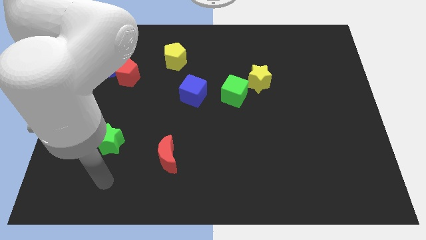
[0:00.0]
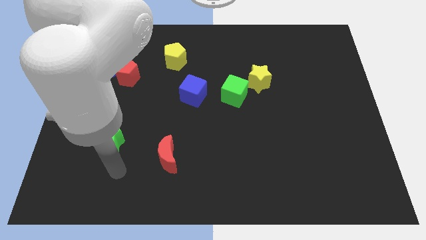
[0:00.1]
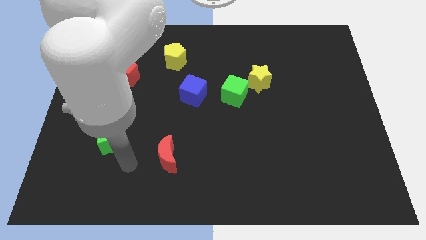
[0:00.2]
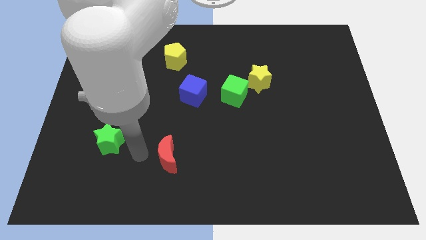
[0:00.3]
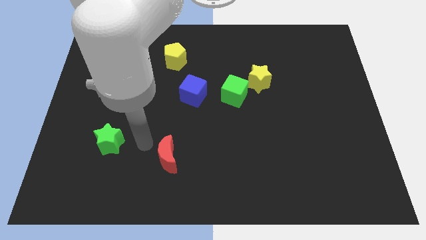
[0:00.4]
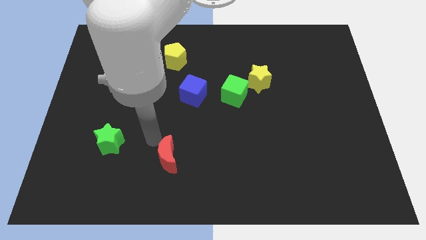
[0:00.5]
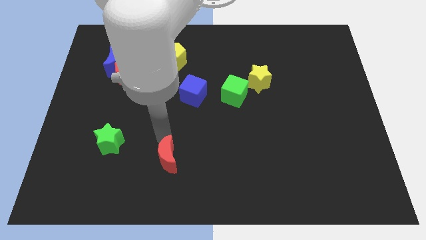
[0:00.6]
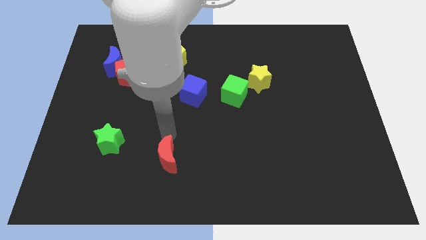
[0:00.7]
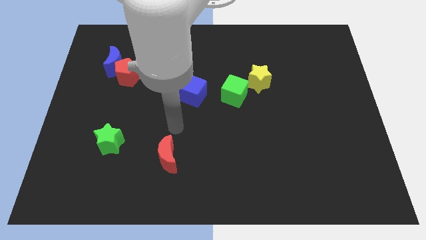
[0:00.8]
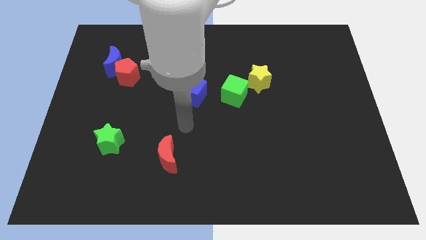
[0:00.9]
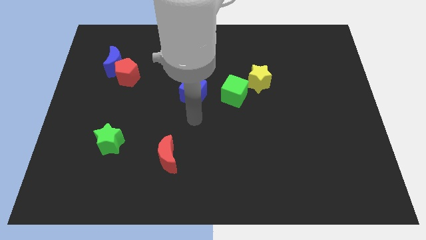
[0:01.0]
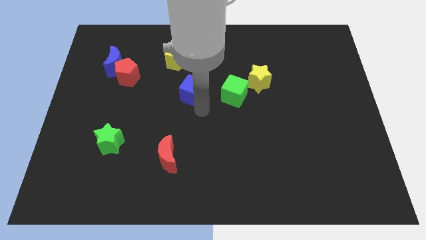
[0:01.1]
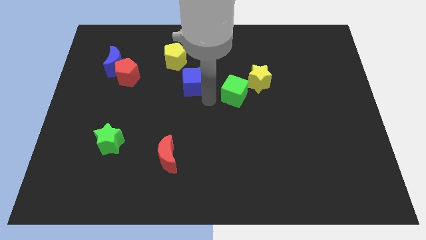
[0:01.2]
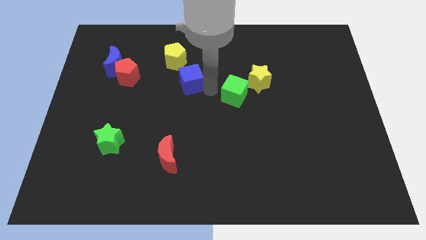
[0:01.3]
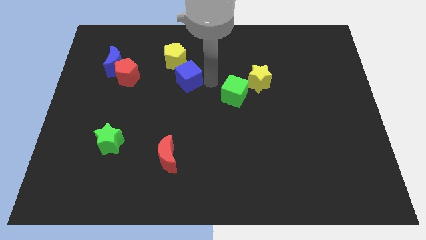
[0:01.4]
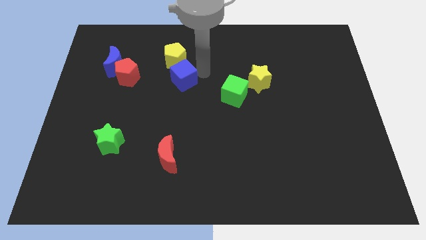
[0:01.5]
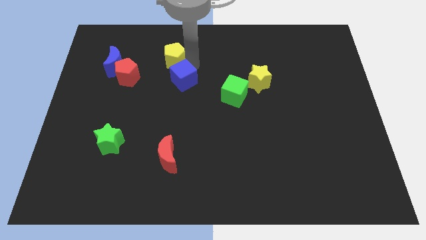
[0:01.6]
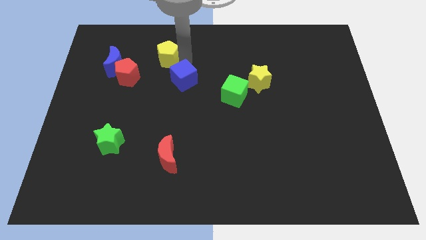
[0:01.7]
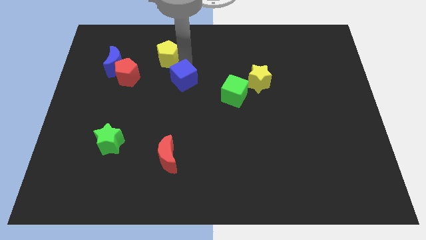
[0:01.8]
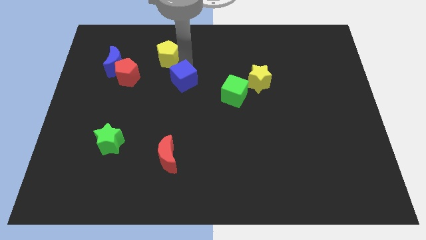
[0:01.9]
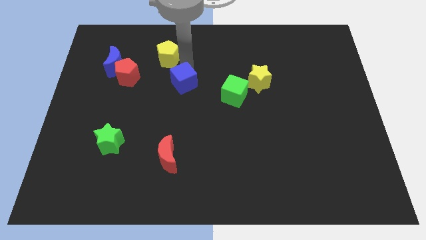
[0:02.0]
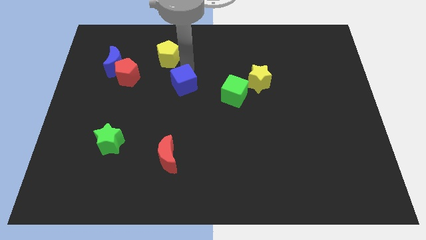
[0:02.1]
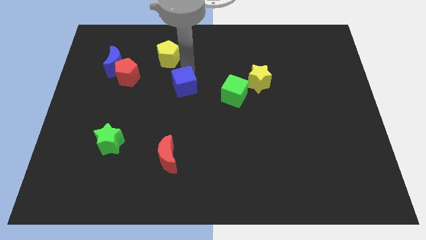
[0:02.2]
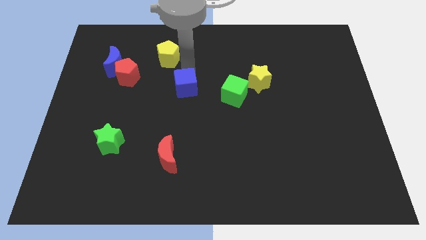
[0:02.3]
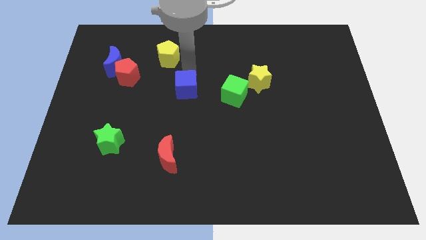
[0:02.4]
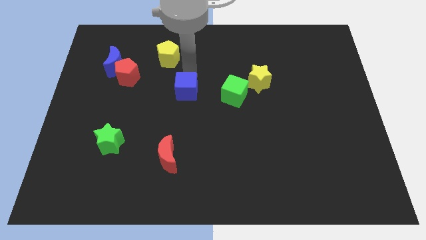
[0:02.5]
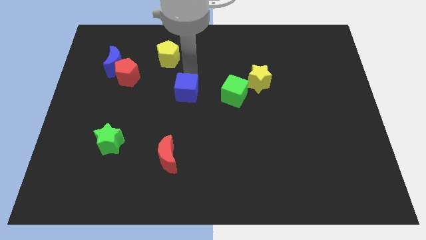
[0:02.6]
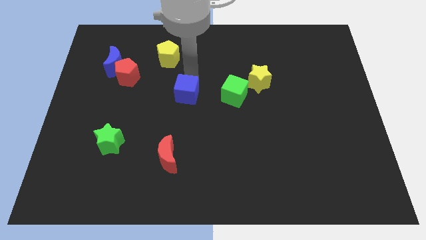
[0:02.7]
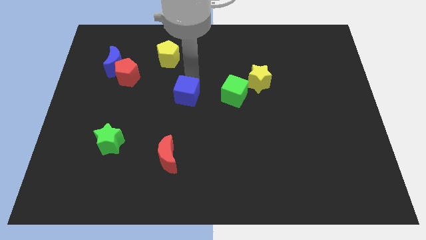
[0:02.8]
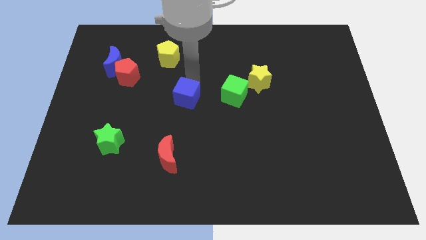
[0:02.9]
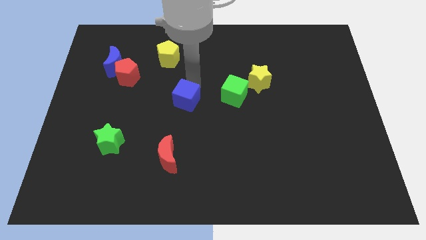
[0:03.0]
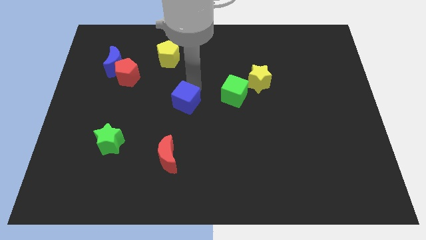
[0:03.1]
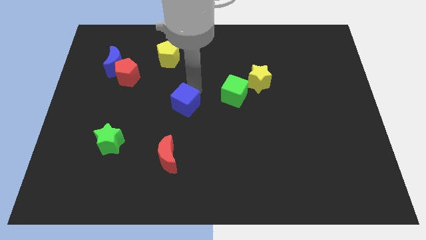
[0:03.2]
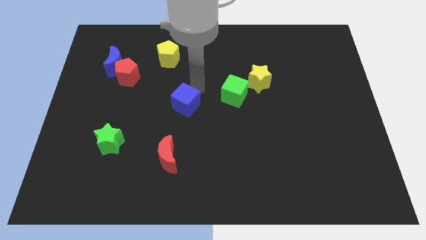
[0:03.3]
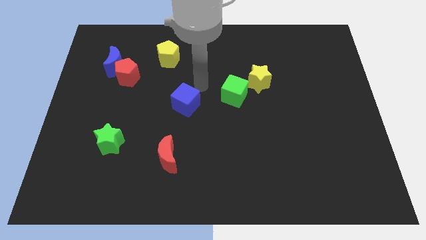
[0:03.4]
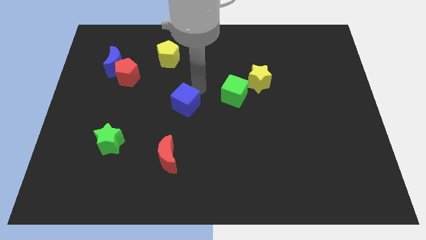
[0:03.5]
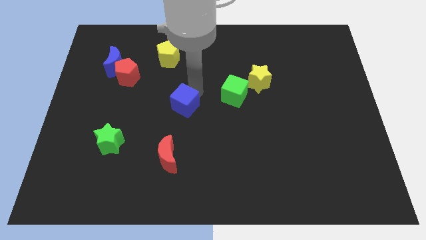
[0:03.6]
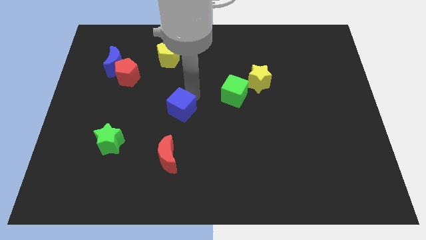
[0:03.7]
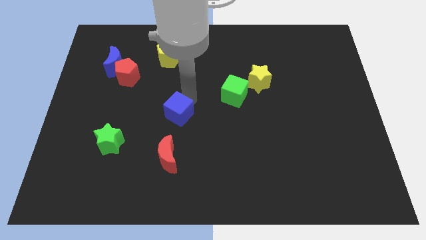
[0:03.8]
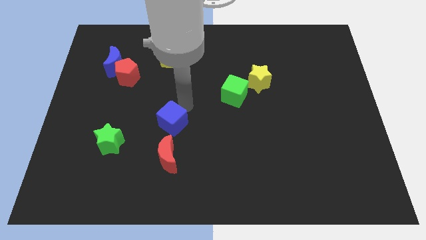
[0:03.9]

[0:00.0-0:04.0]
slightly move the blue cube downwards and to the left

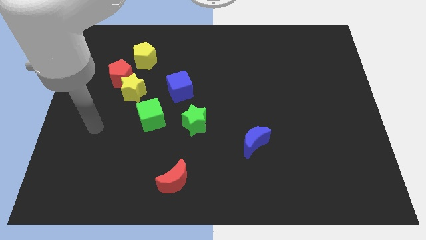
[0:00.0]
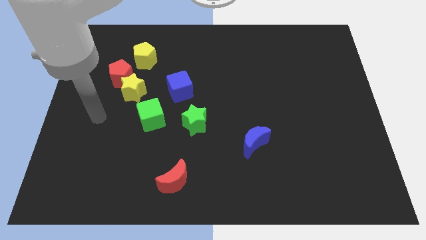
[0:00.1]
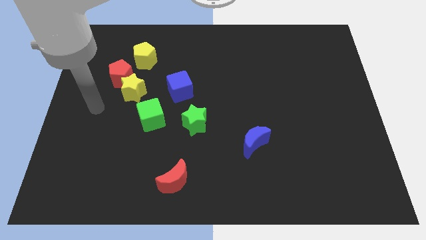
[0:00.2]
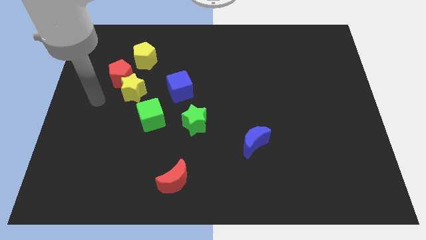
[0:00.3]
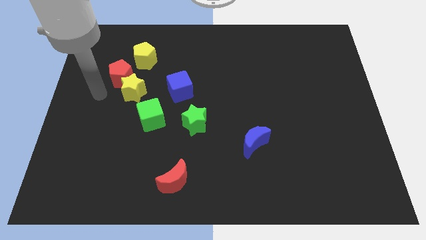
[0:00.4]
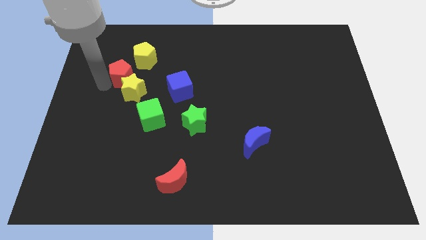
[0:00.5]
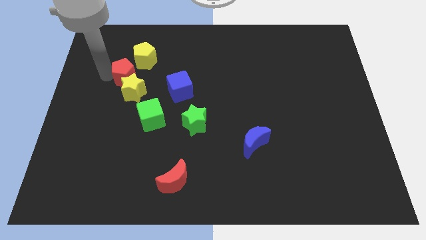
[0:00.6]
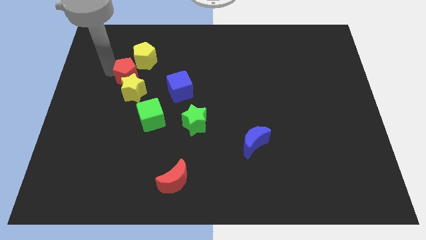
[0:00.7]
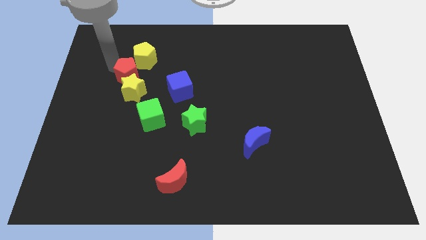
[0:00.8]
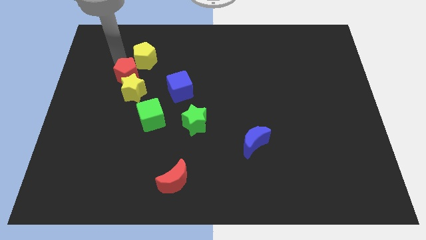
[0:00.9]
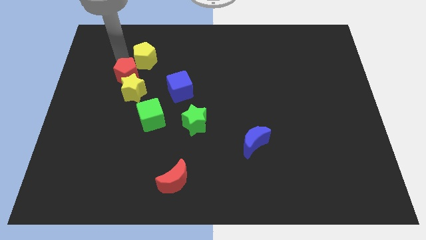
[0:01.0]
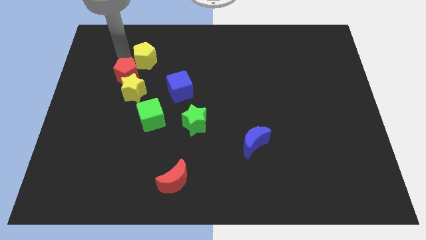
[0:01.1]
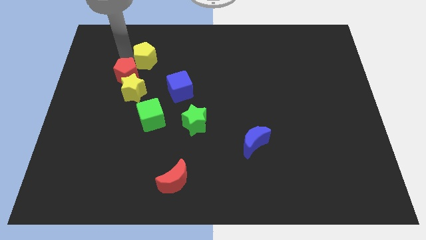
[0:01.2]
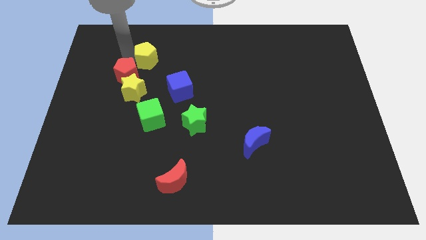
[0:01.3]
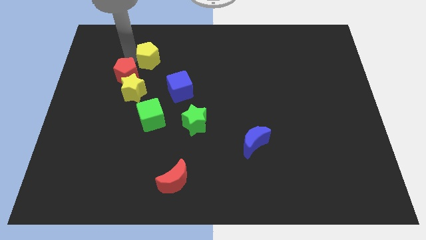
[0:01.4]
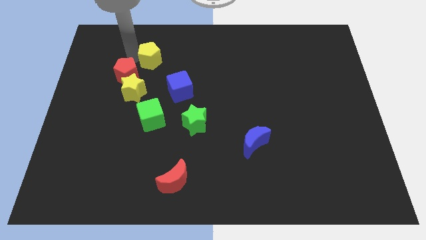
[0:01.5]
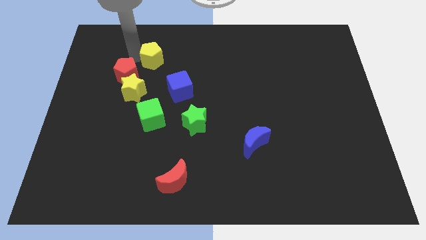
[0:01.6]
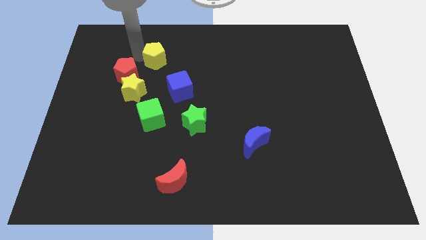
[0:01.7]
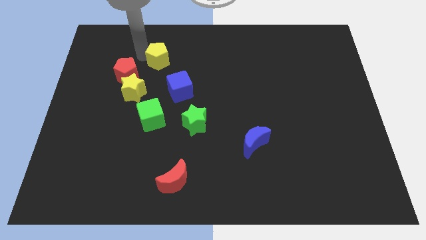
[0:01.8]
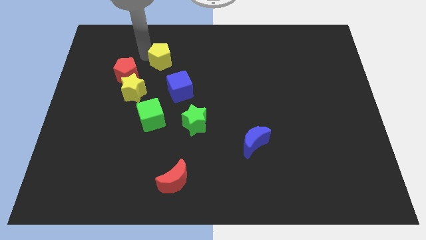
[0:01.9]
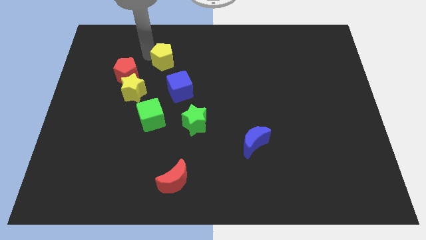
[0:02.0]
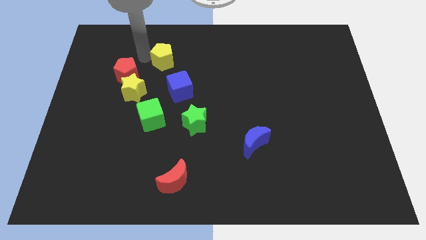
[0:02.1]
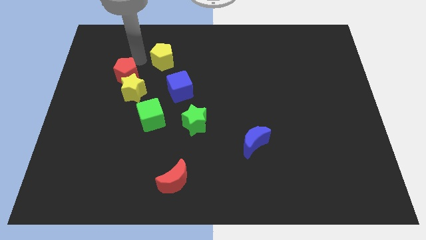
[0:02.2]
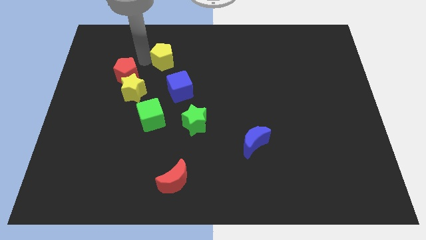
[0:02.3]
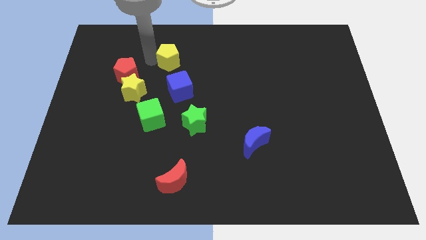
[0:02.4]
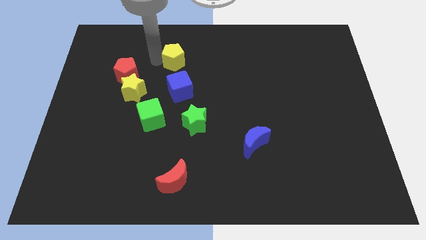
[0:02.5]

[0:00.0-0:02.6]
push the yellow pentagon a bit to the right

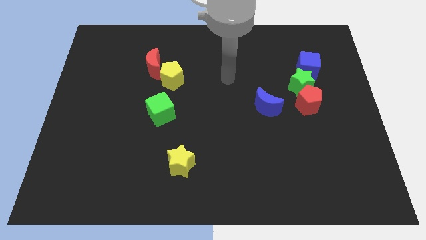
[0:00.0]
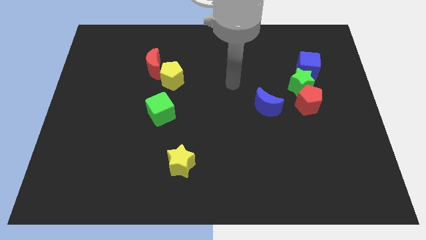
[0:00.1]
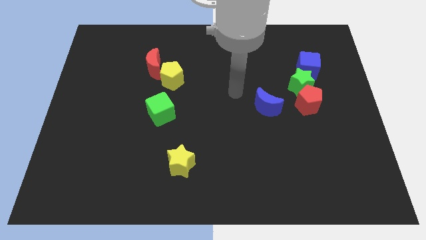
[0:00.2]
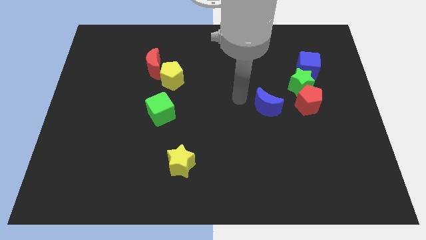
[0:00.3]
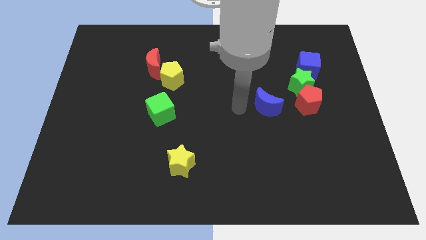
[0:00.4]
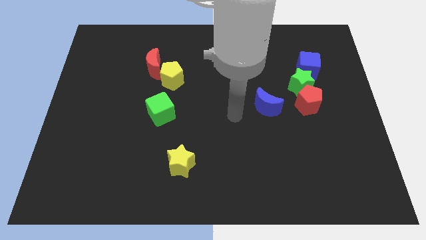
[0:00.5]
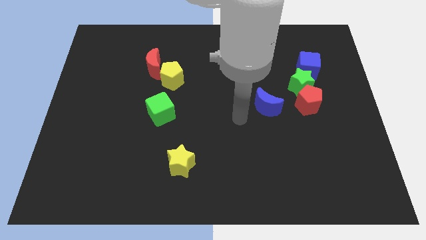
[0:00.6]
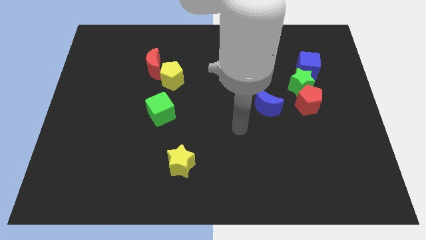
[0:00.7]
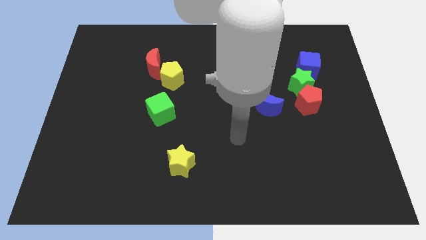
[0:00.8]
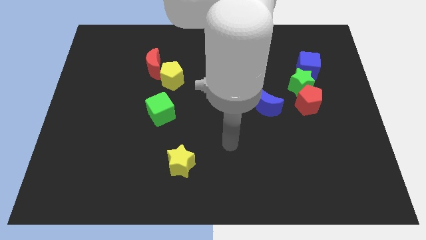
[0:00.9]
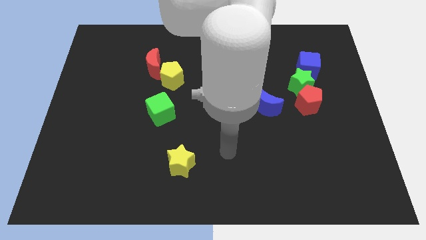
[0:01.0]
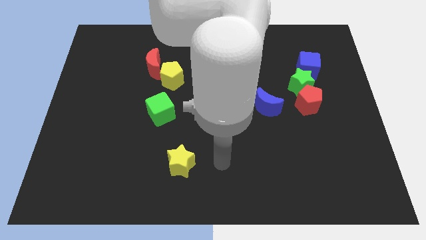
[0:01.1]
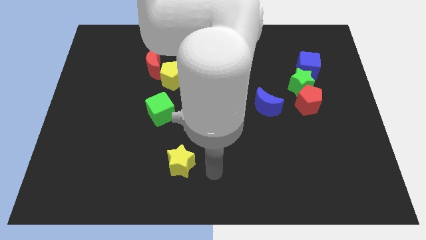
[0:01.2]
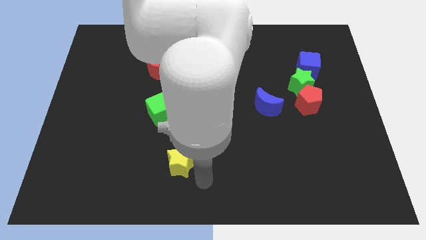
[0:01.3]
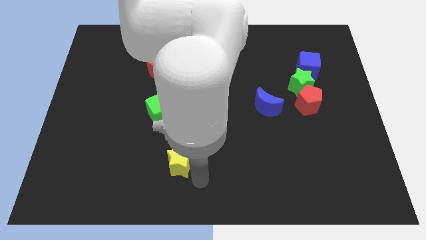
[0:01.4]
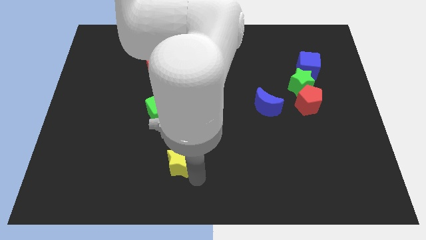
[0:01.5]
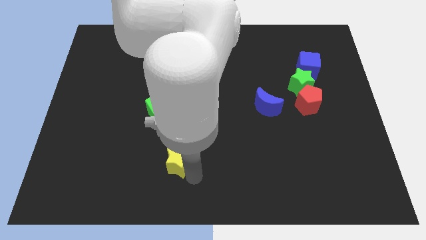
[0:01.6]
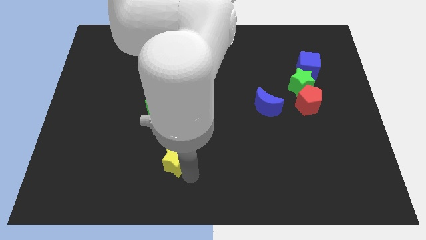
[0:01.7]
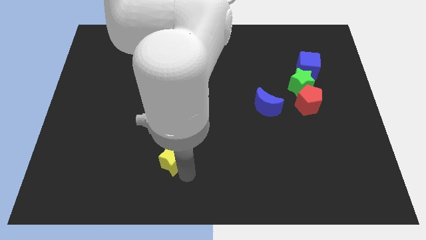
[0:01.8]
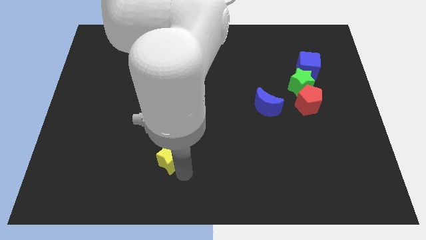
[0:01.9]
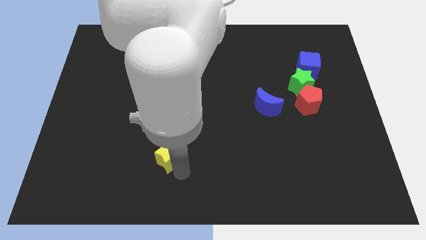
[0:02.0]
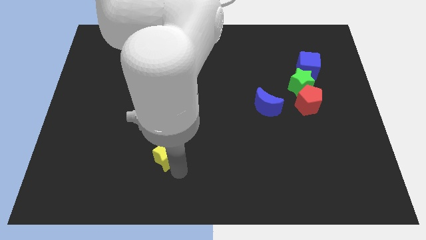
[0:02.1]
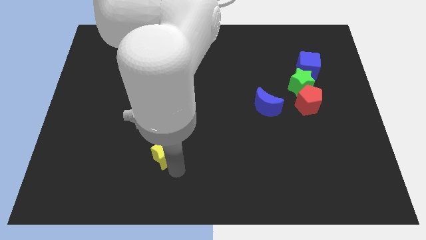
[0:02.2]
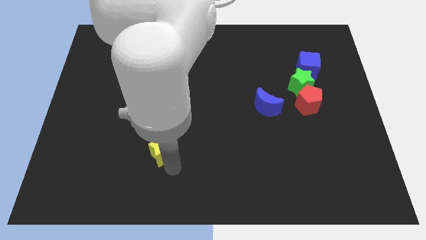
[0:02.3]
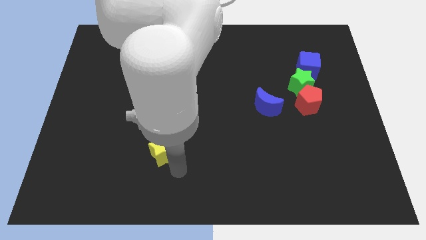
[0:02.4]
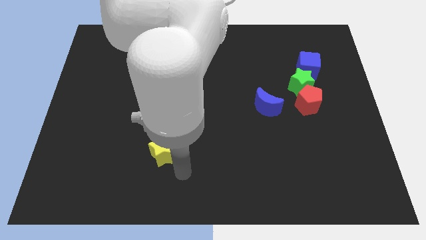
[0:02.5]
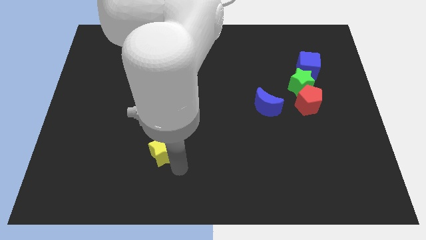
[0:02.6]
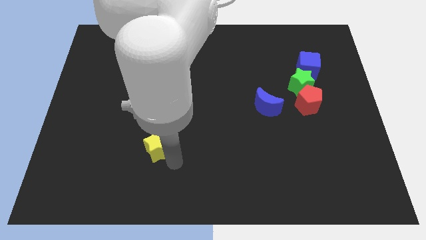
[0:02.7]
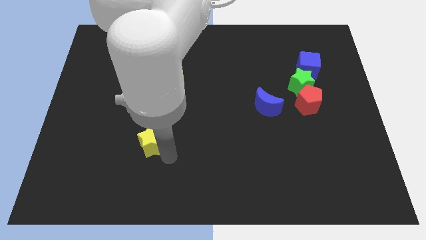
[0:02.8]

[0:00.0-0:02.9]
slightly push the yellow star upwards and to the left
